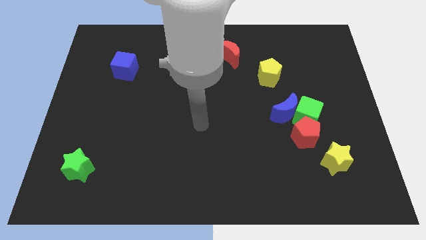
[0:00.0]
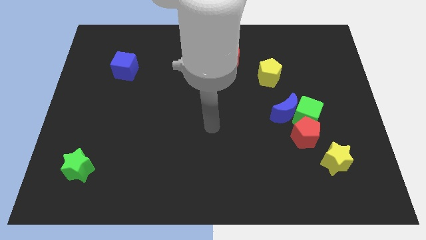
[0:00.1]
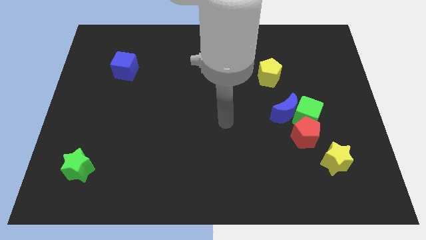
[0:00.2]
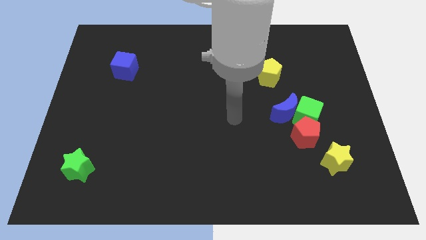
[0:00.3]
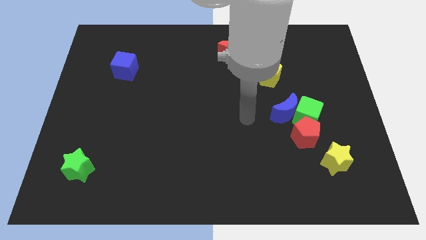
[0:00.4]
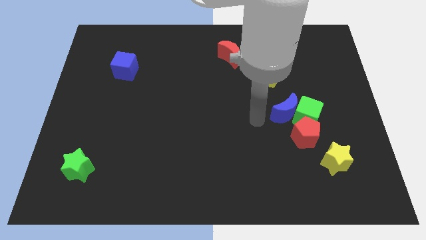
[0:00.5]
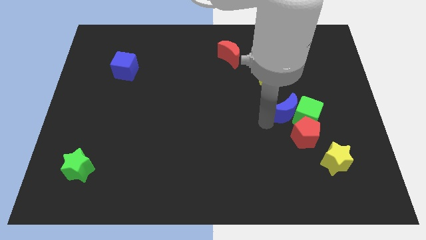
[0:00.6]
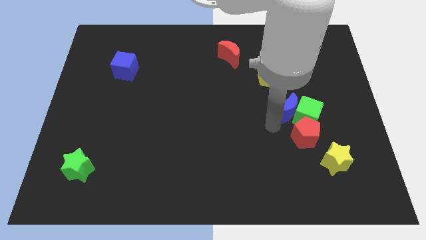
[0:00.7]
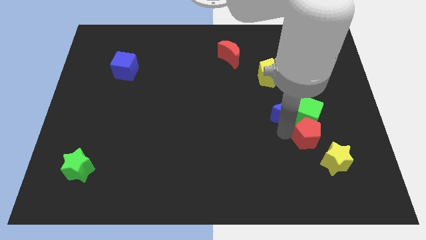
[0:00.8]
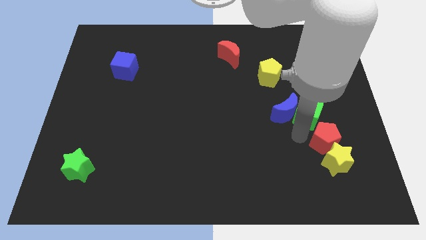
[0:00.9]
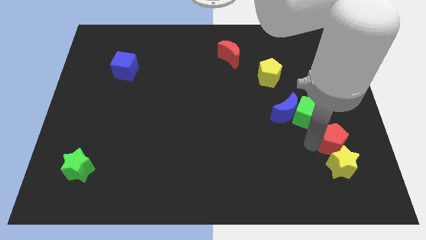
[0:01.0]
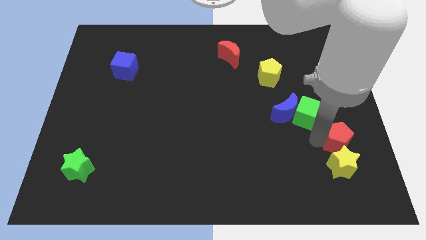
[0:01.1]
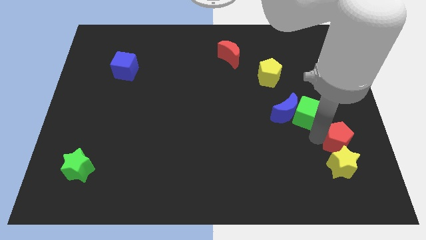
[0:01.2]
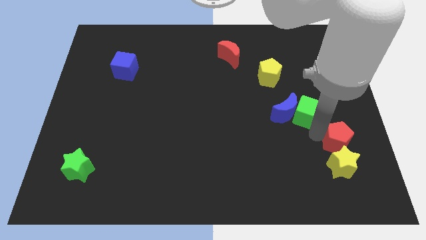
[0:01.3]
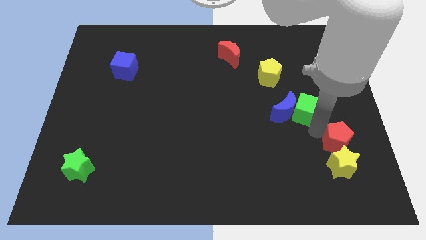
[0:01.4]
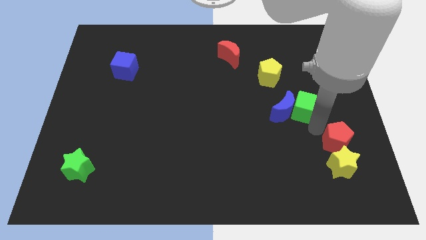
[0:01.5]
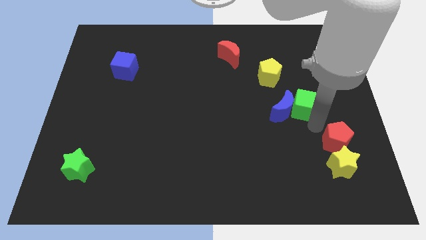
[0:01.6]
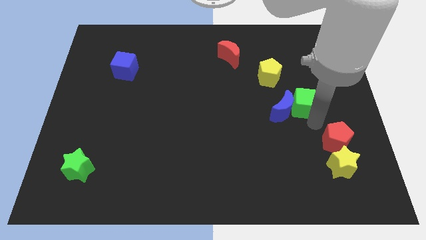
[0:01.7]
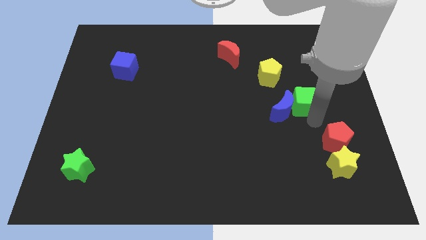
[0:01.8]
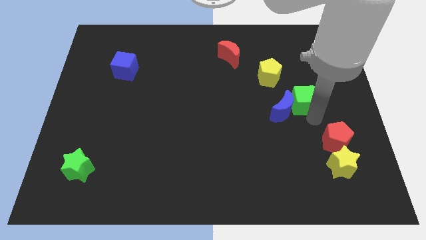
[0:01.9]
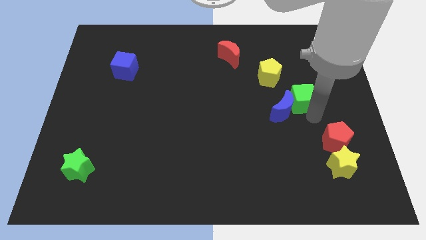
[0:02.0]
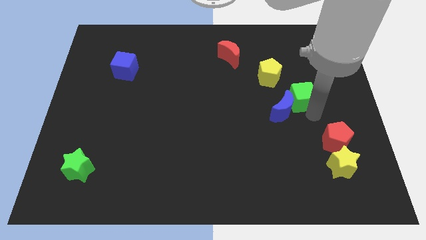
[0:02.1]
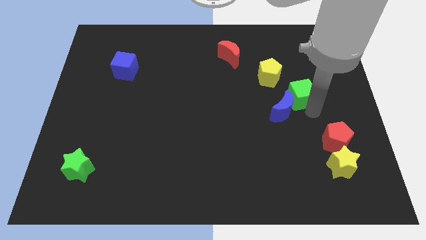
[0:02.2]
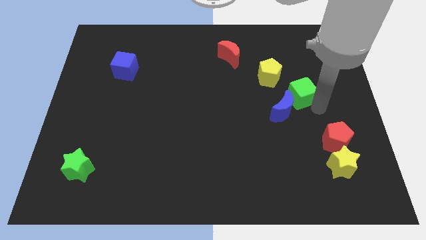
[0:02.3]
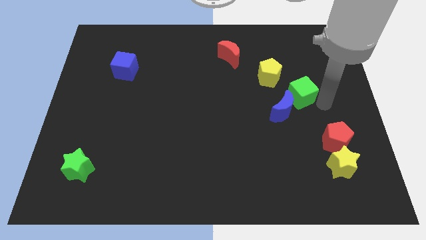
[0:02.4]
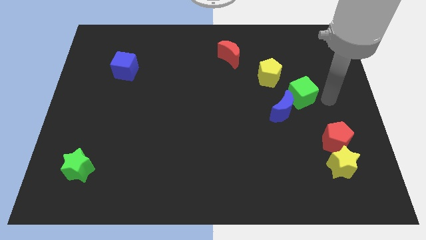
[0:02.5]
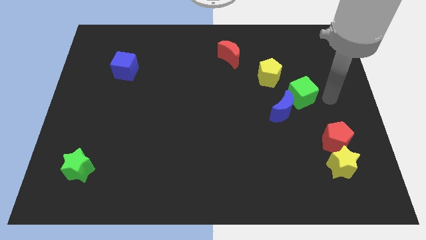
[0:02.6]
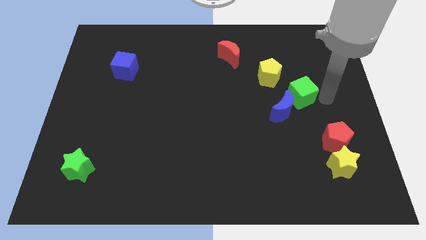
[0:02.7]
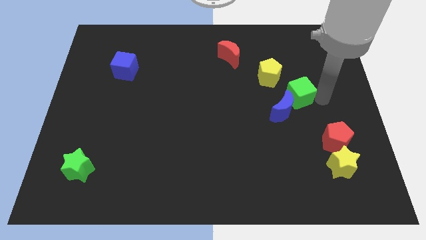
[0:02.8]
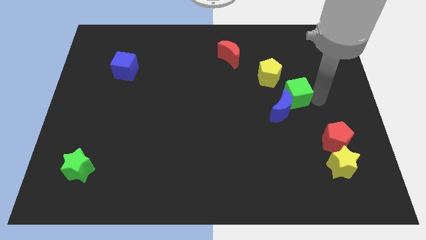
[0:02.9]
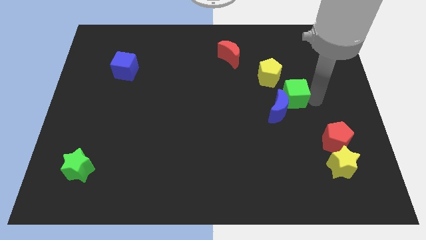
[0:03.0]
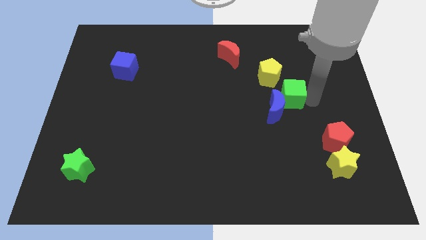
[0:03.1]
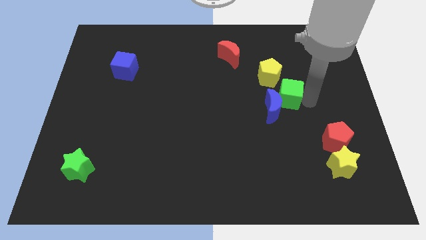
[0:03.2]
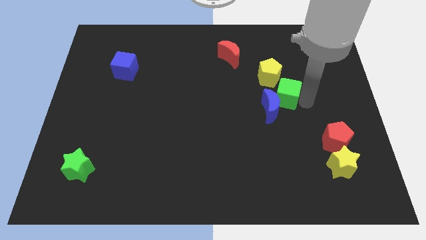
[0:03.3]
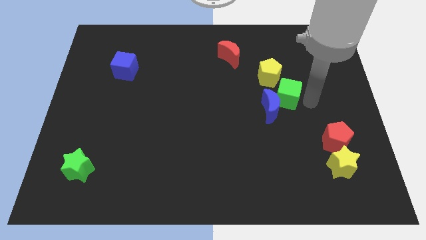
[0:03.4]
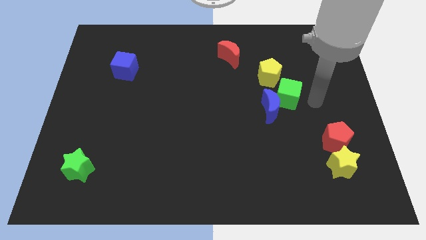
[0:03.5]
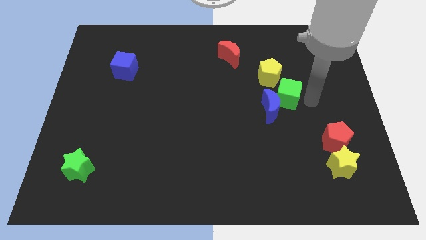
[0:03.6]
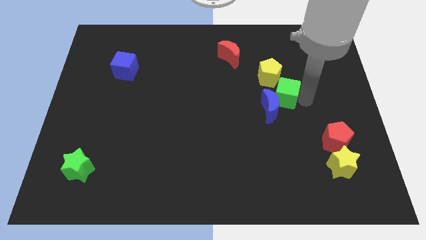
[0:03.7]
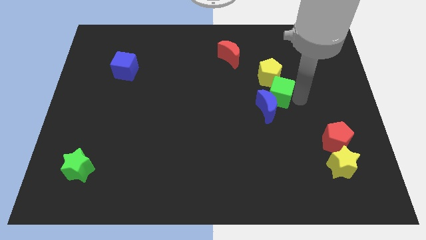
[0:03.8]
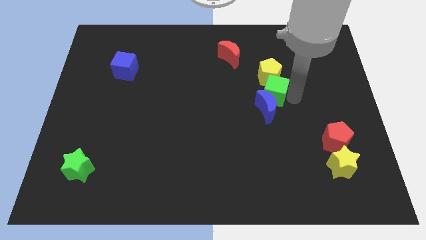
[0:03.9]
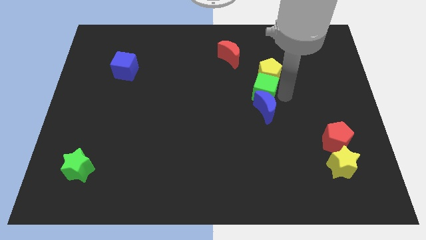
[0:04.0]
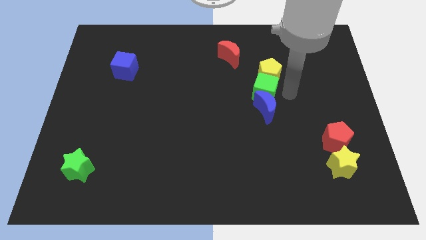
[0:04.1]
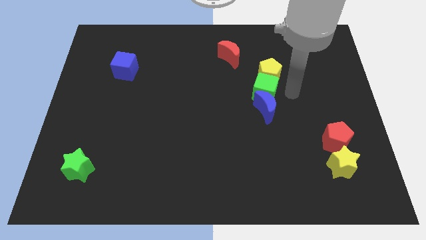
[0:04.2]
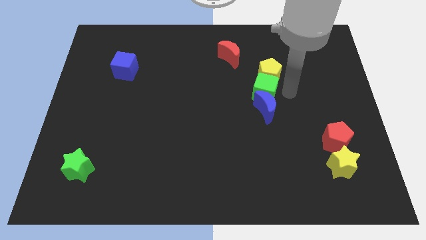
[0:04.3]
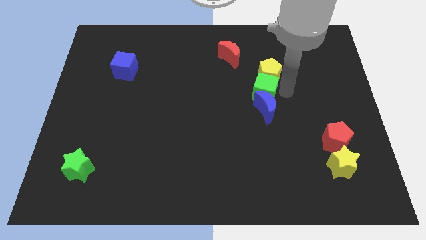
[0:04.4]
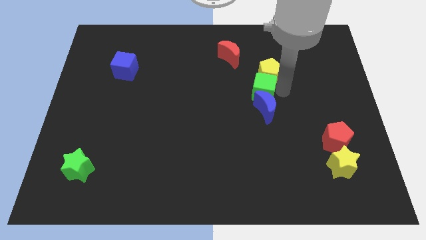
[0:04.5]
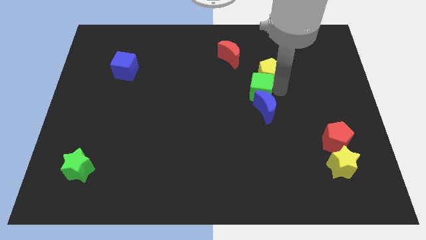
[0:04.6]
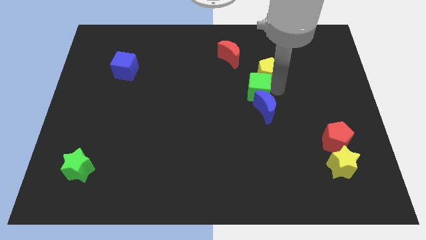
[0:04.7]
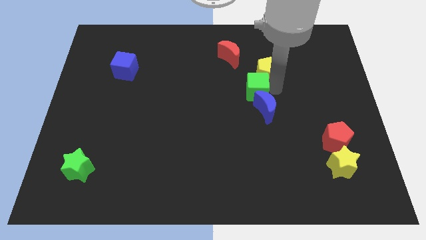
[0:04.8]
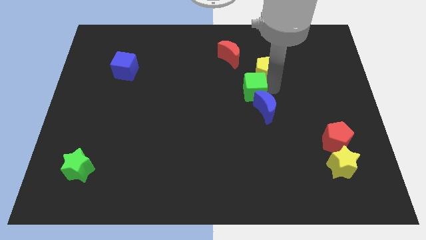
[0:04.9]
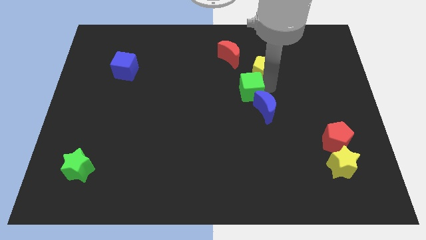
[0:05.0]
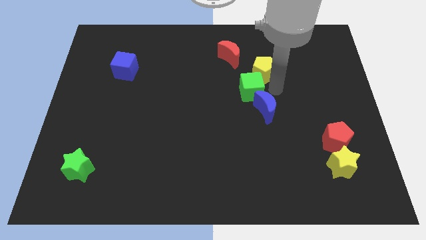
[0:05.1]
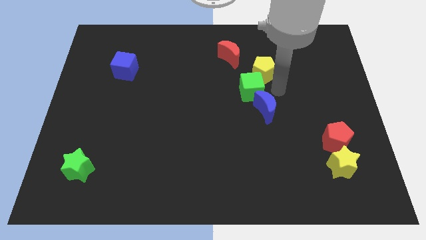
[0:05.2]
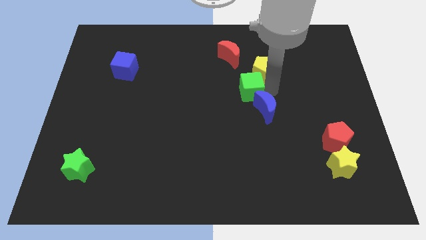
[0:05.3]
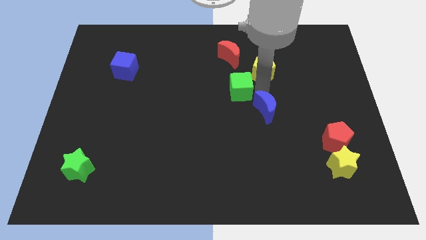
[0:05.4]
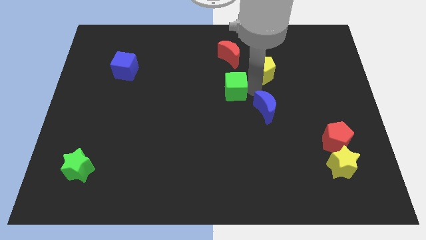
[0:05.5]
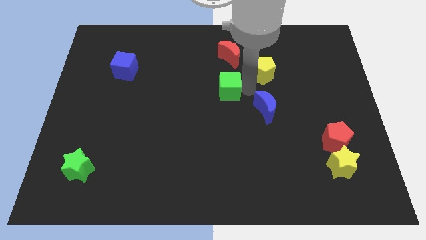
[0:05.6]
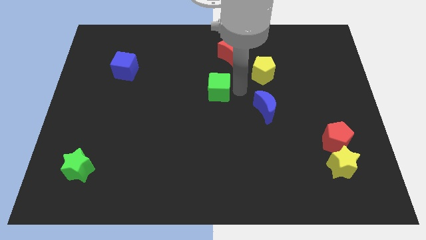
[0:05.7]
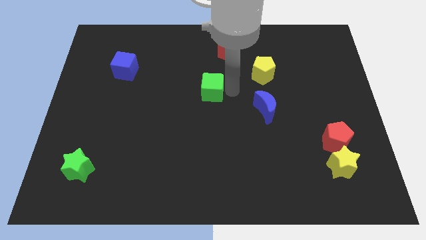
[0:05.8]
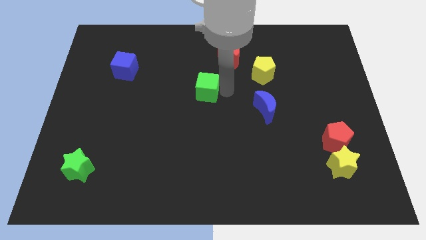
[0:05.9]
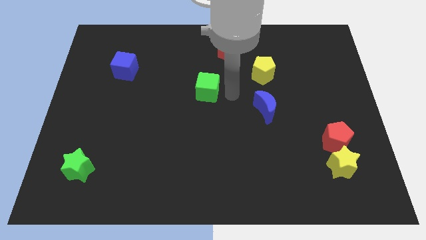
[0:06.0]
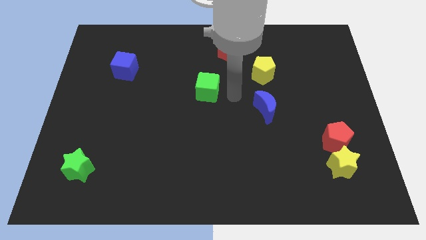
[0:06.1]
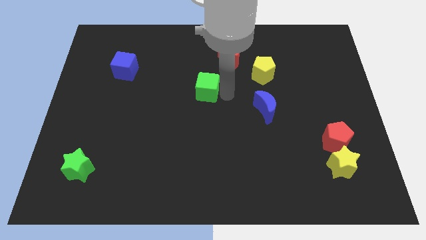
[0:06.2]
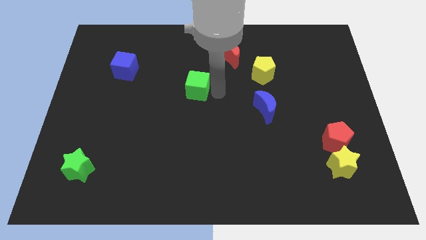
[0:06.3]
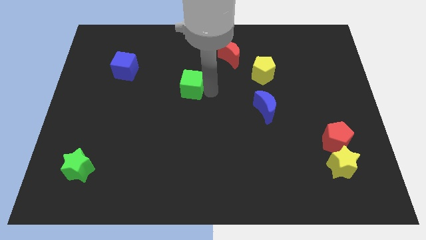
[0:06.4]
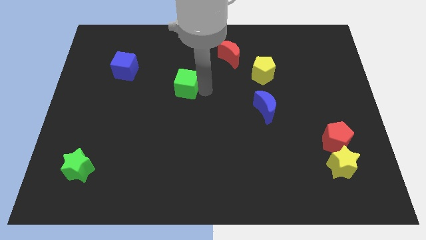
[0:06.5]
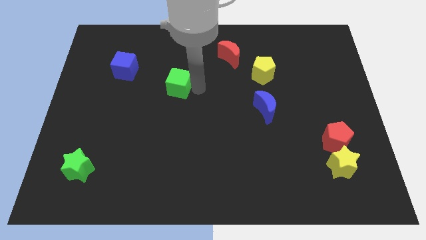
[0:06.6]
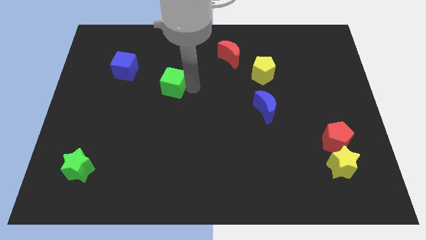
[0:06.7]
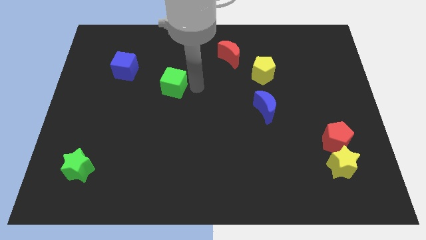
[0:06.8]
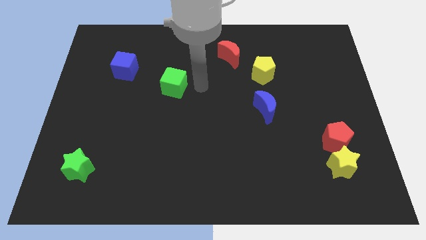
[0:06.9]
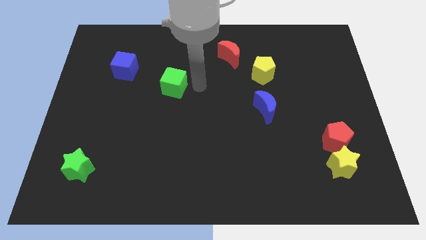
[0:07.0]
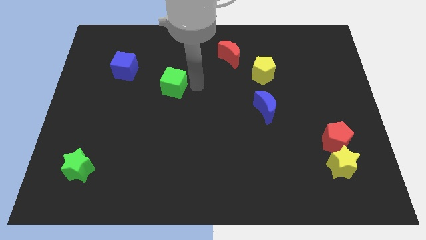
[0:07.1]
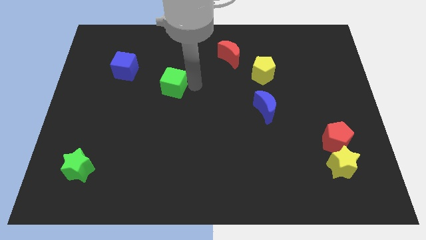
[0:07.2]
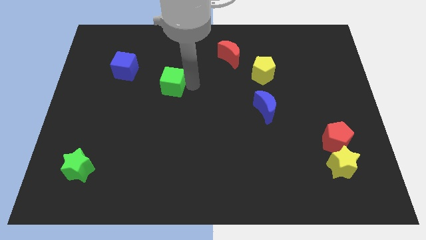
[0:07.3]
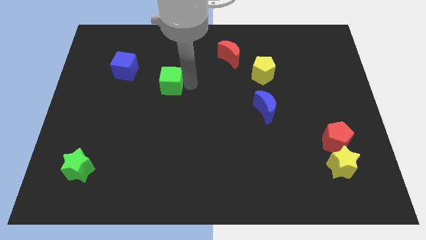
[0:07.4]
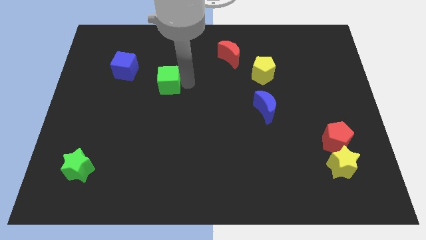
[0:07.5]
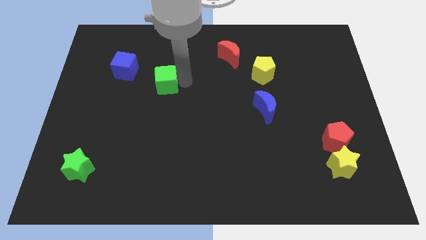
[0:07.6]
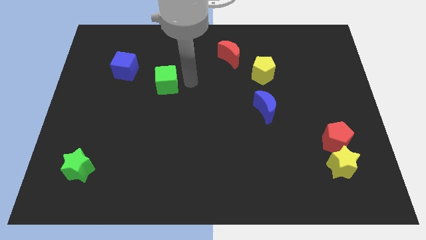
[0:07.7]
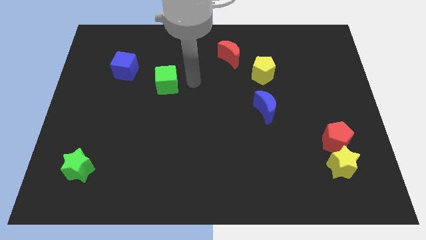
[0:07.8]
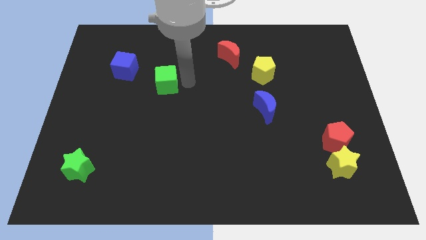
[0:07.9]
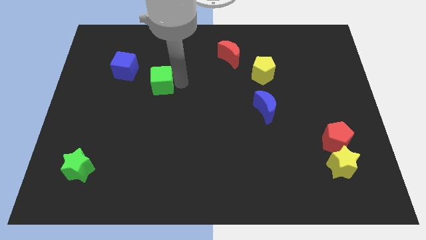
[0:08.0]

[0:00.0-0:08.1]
slide the green cube to the bottom right of the blue cube
